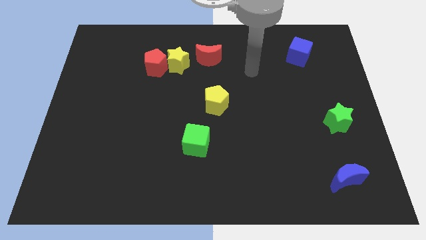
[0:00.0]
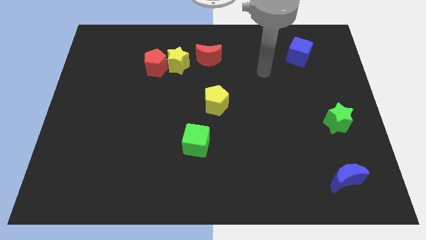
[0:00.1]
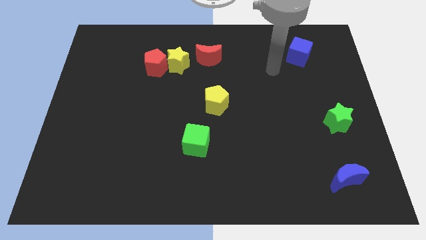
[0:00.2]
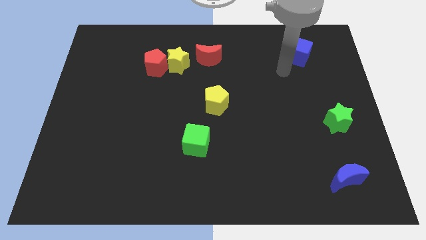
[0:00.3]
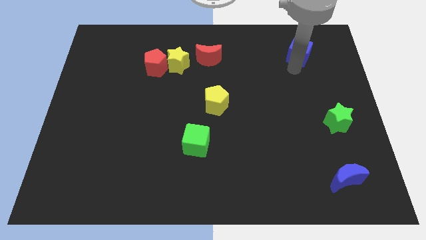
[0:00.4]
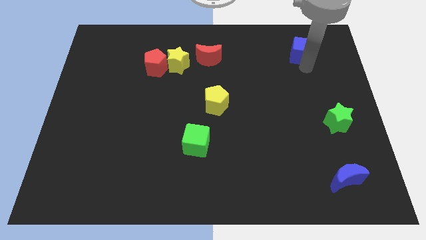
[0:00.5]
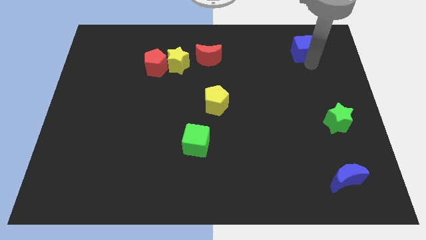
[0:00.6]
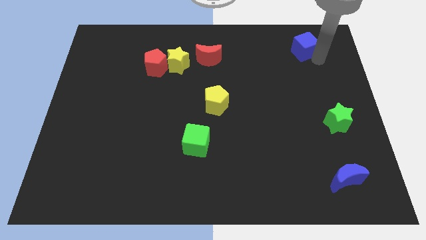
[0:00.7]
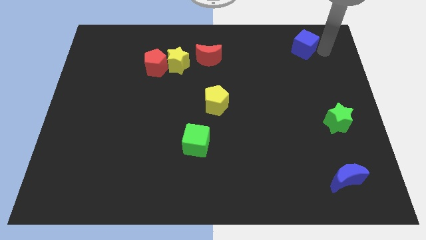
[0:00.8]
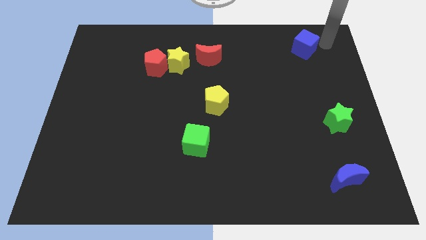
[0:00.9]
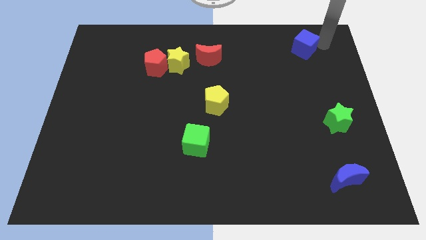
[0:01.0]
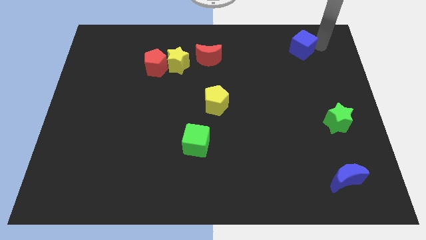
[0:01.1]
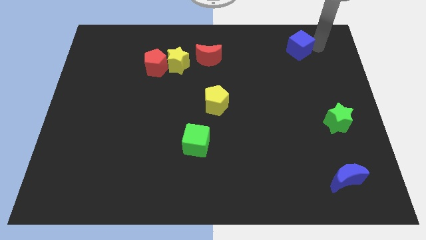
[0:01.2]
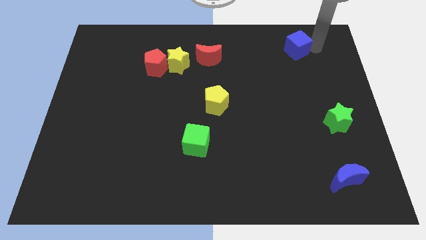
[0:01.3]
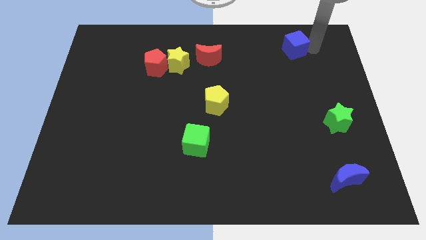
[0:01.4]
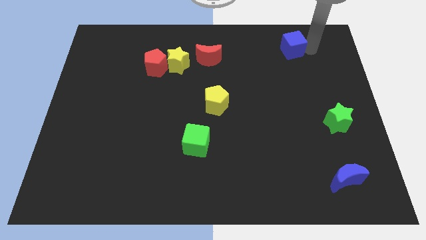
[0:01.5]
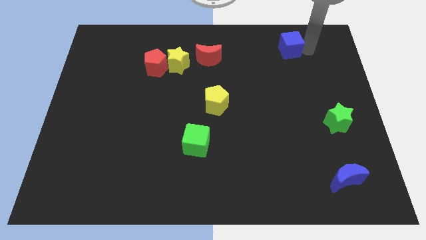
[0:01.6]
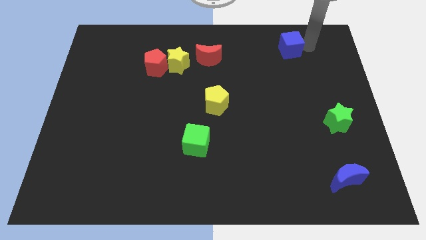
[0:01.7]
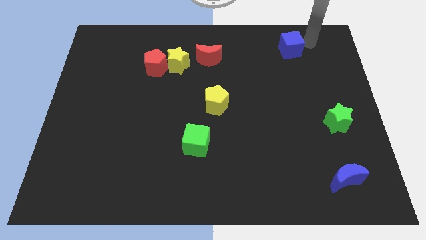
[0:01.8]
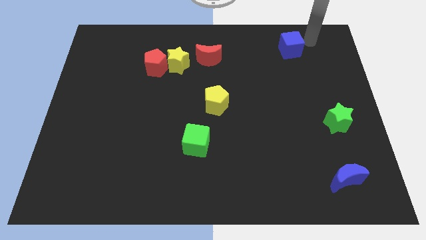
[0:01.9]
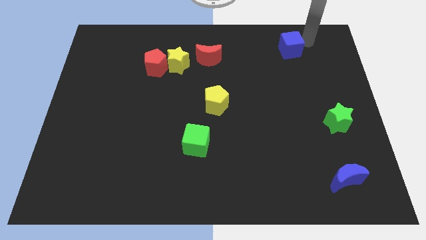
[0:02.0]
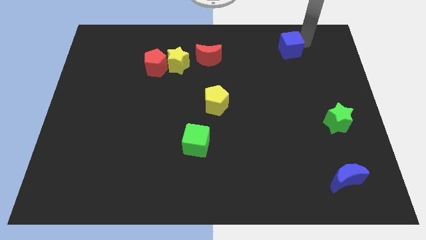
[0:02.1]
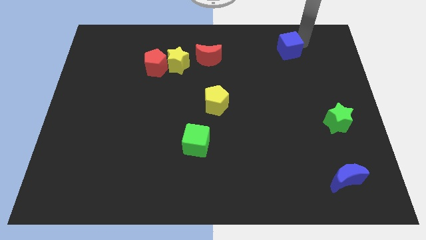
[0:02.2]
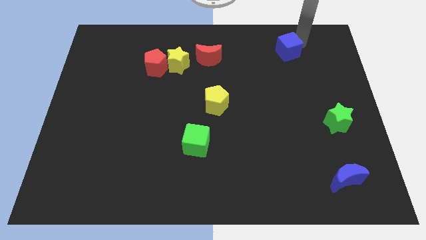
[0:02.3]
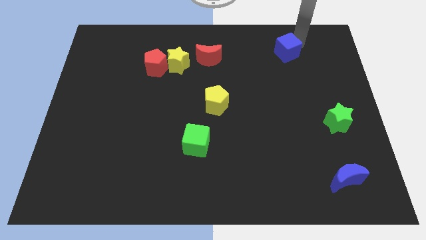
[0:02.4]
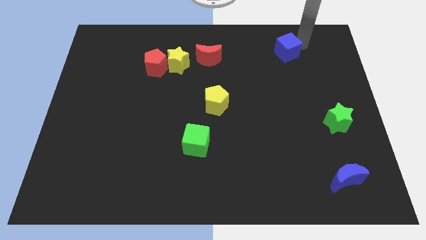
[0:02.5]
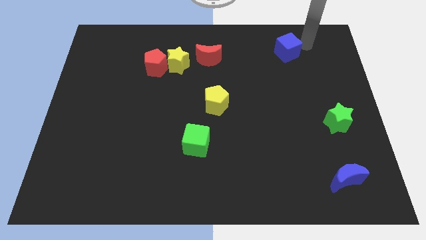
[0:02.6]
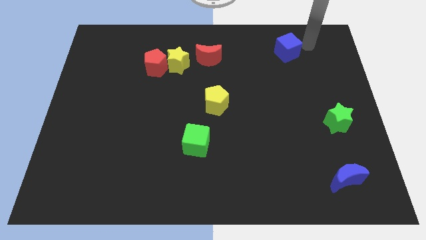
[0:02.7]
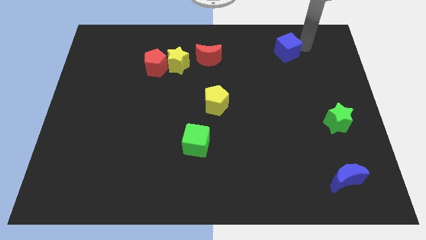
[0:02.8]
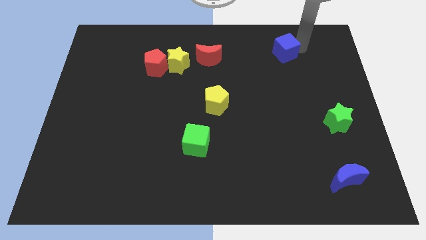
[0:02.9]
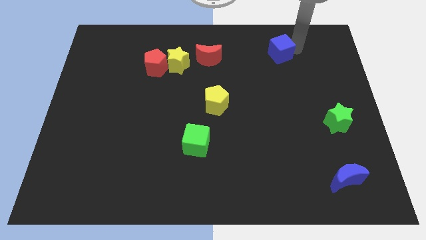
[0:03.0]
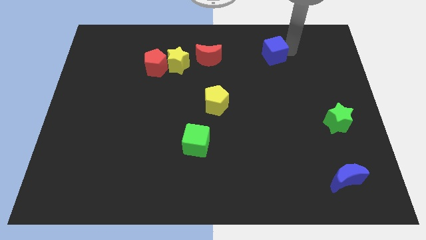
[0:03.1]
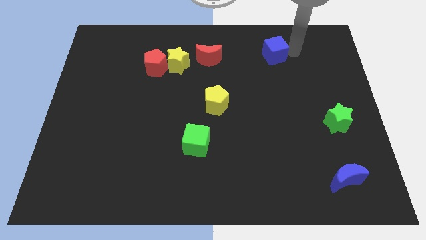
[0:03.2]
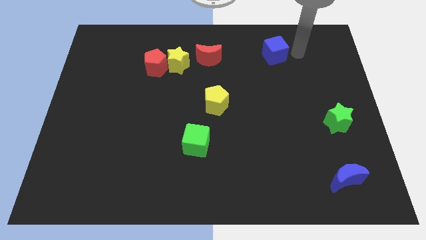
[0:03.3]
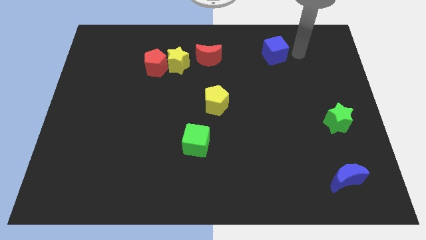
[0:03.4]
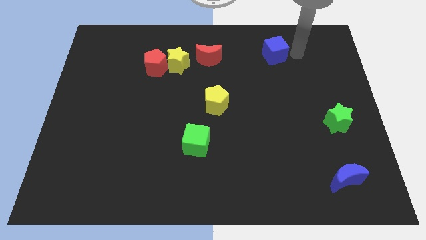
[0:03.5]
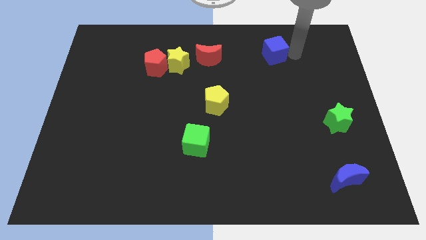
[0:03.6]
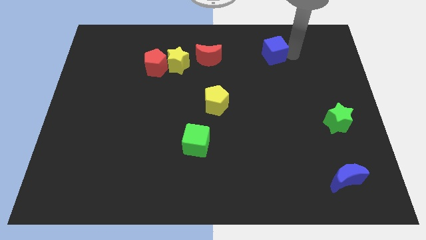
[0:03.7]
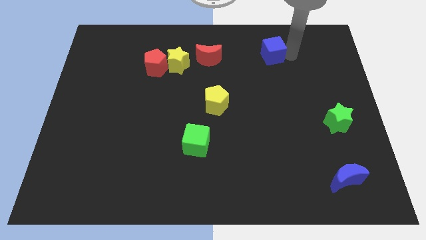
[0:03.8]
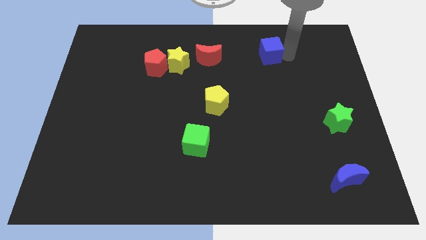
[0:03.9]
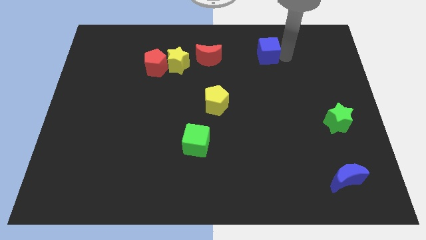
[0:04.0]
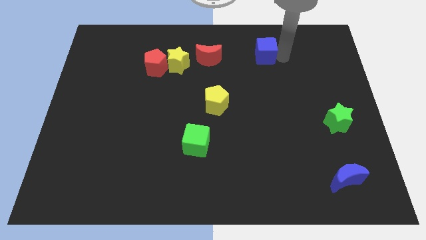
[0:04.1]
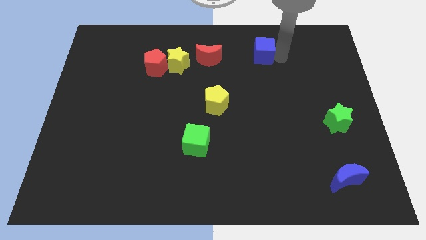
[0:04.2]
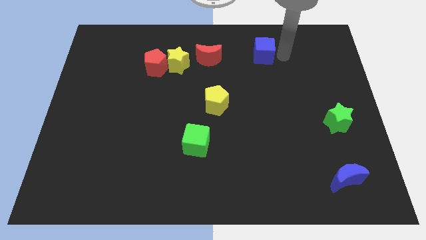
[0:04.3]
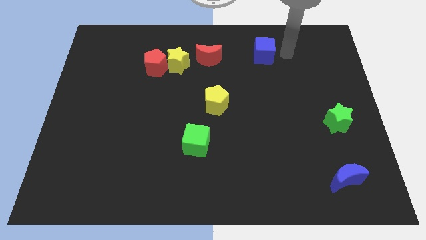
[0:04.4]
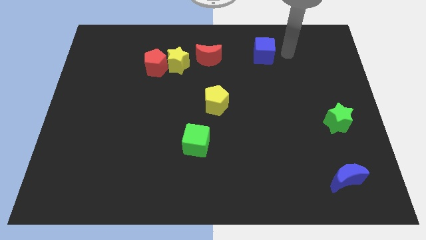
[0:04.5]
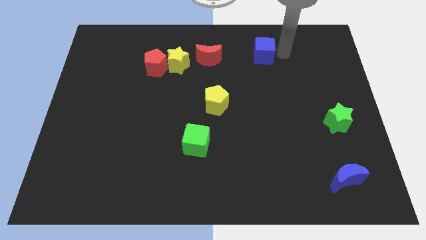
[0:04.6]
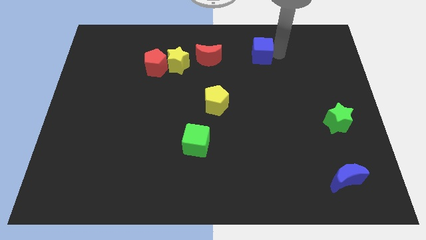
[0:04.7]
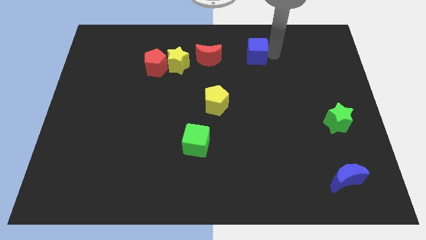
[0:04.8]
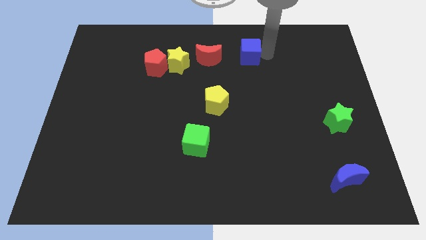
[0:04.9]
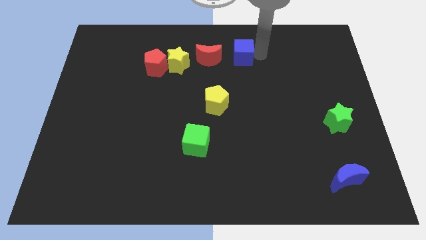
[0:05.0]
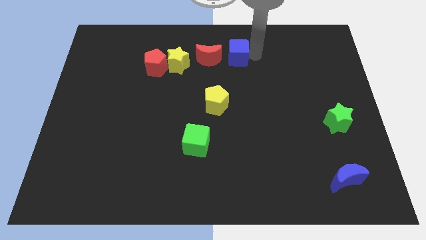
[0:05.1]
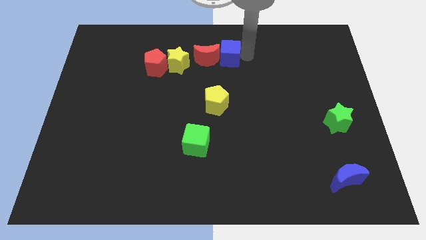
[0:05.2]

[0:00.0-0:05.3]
put the blue cube towards the red moon

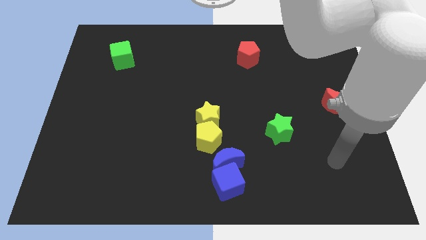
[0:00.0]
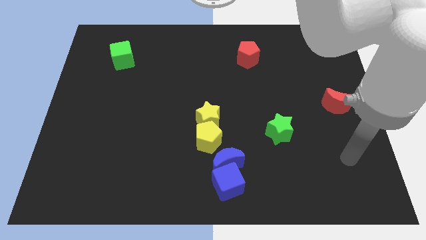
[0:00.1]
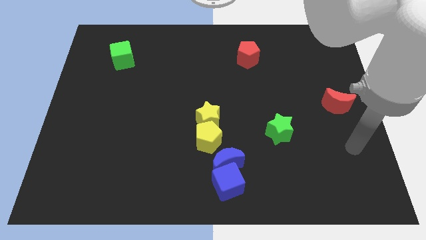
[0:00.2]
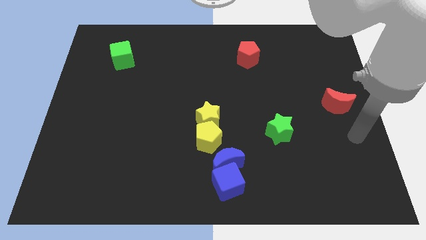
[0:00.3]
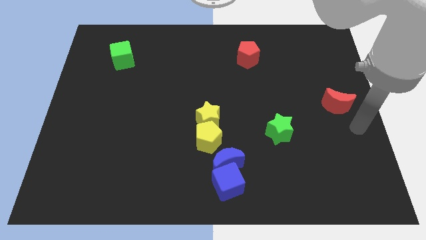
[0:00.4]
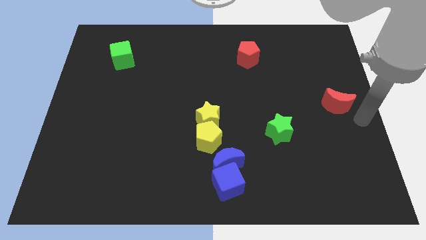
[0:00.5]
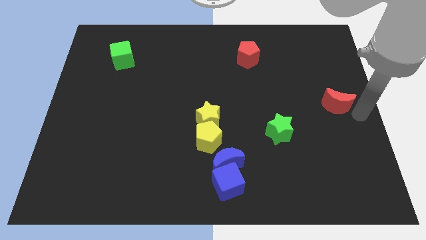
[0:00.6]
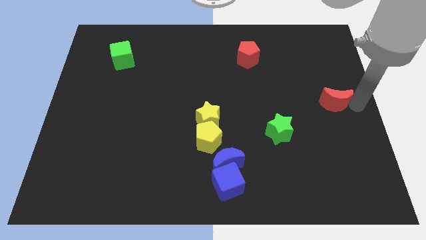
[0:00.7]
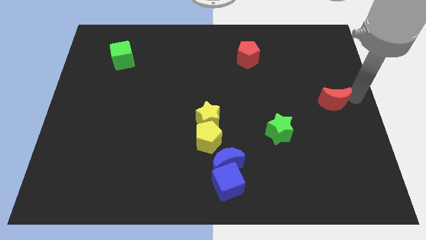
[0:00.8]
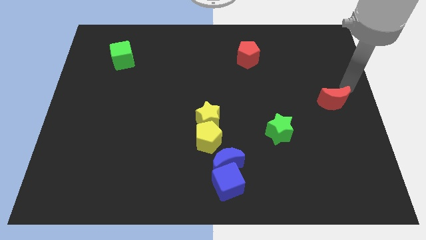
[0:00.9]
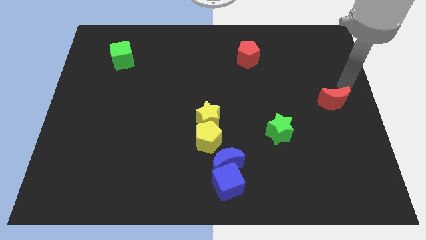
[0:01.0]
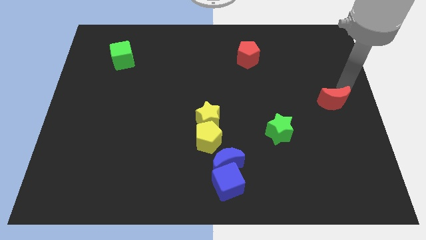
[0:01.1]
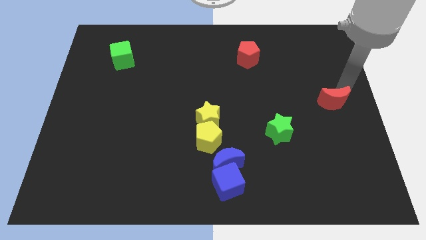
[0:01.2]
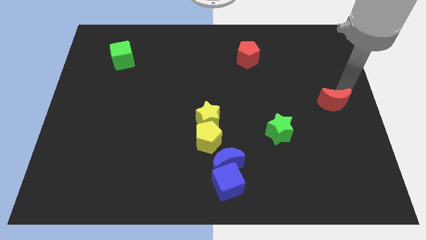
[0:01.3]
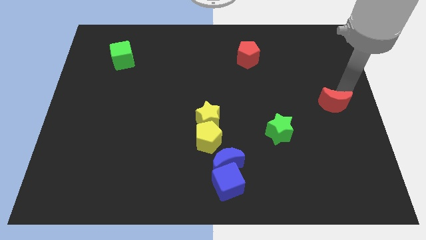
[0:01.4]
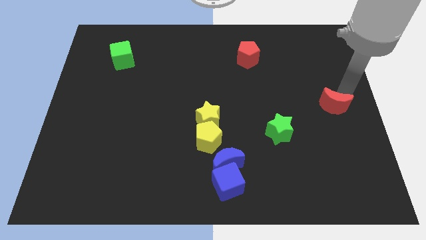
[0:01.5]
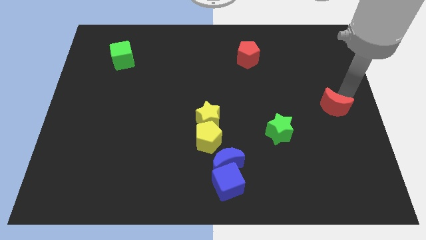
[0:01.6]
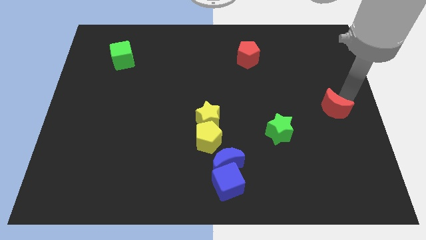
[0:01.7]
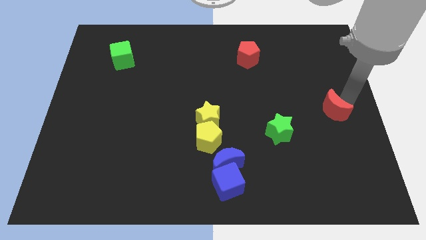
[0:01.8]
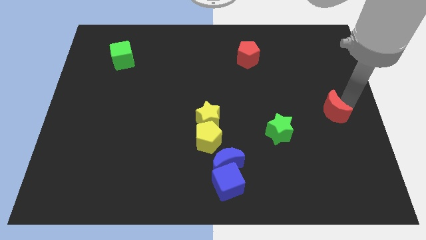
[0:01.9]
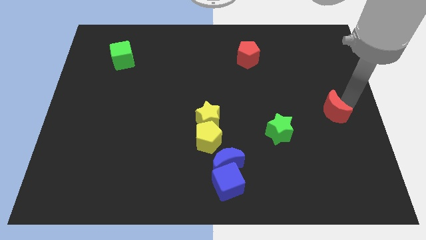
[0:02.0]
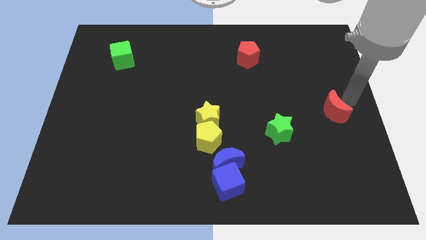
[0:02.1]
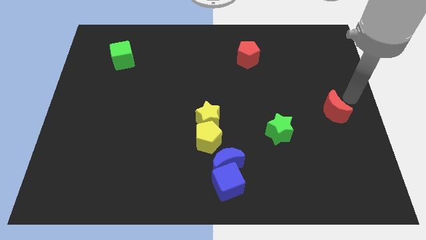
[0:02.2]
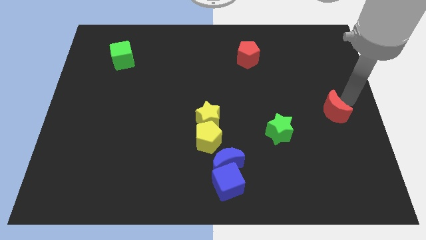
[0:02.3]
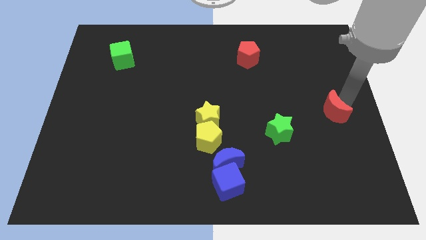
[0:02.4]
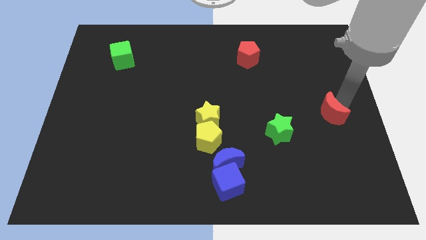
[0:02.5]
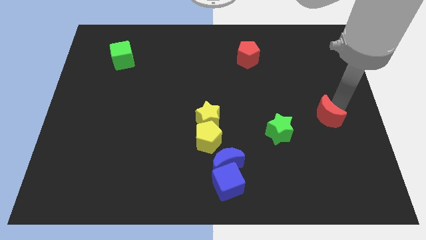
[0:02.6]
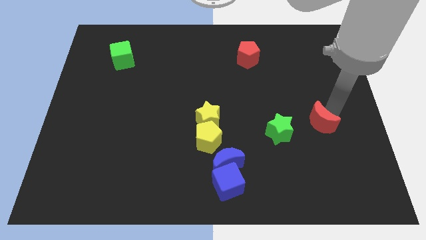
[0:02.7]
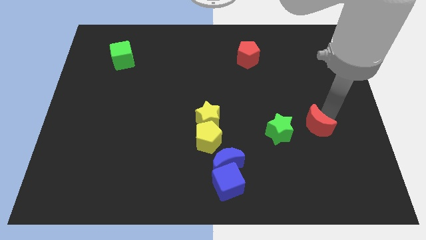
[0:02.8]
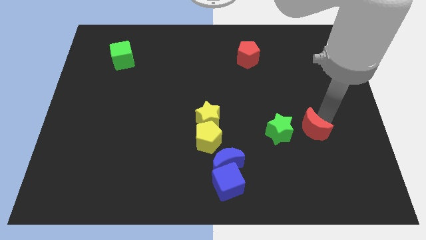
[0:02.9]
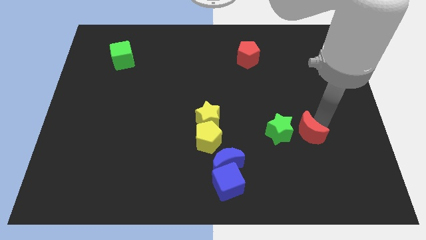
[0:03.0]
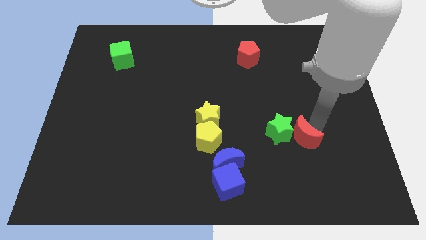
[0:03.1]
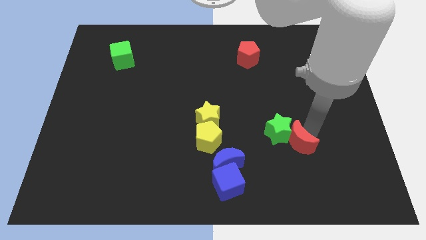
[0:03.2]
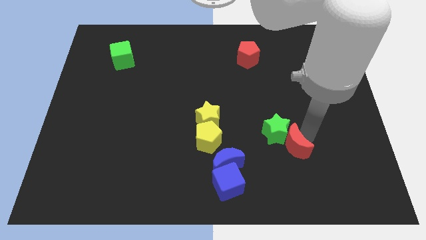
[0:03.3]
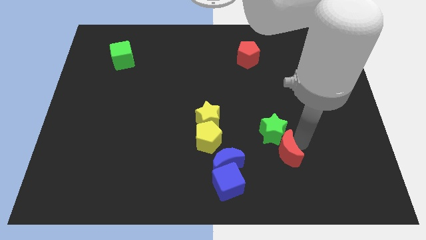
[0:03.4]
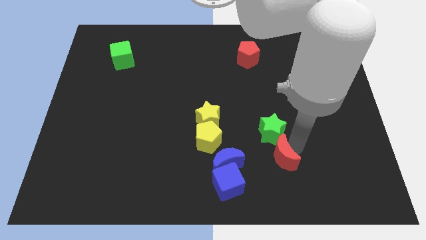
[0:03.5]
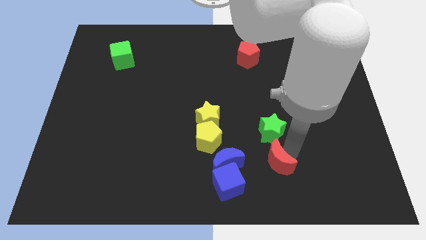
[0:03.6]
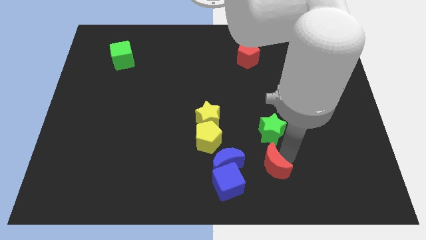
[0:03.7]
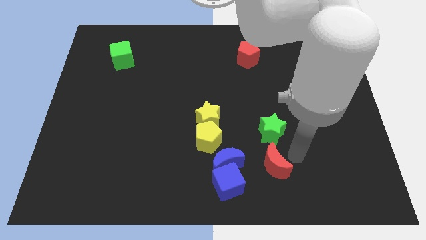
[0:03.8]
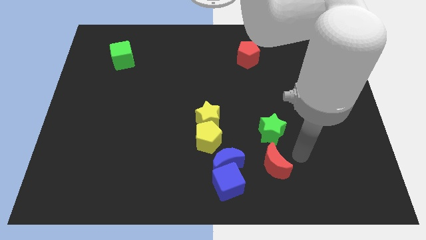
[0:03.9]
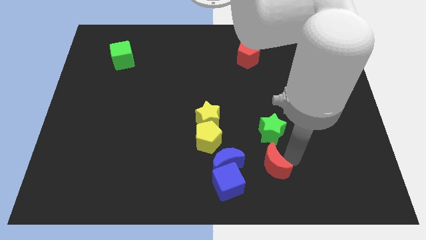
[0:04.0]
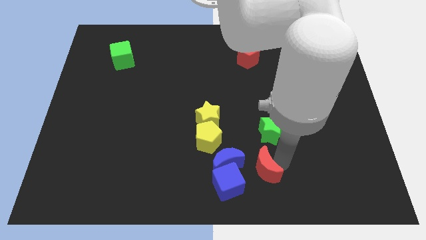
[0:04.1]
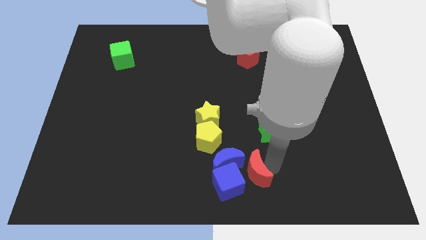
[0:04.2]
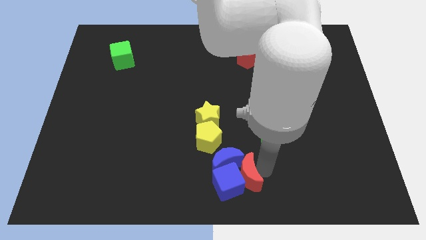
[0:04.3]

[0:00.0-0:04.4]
slide the red moon next to the blue cube
